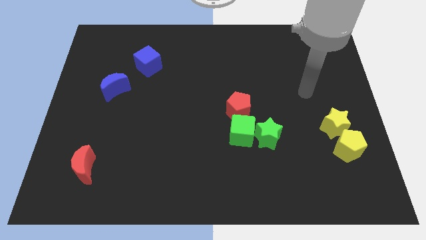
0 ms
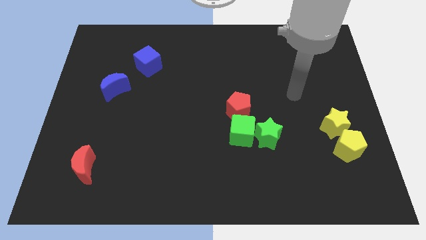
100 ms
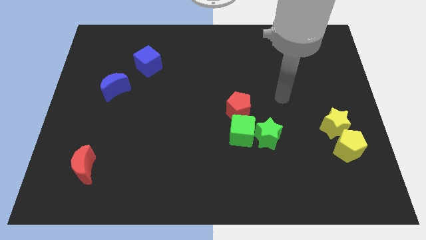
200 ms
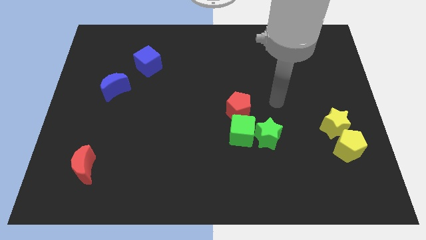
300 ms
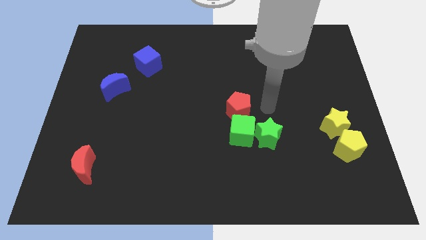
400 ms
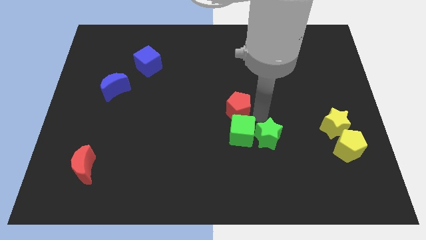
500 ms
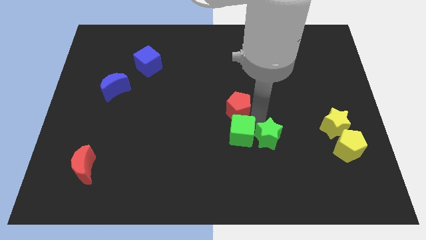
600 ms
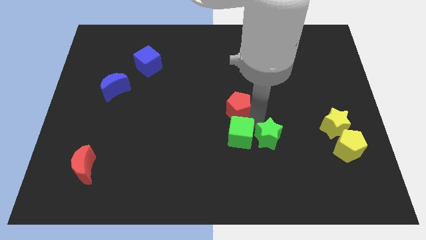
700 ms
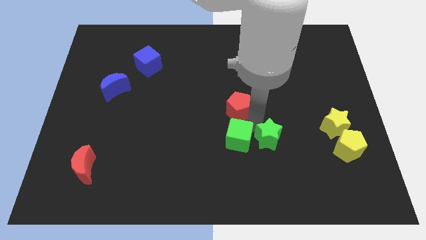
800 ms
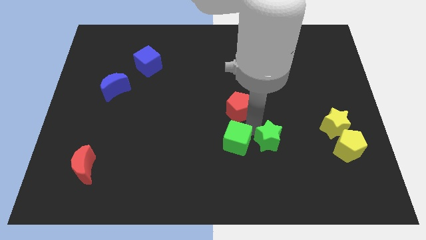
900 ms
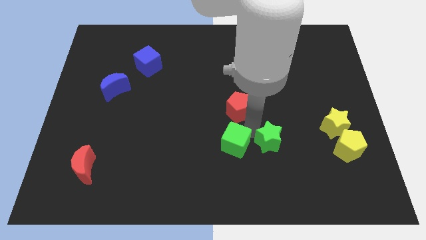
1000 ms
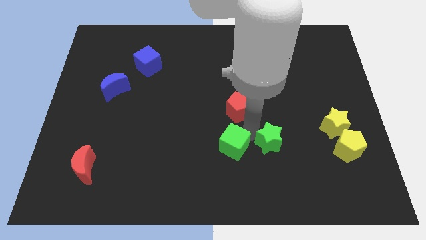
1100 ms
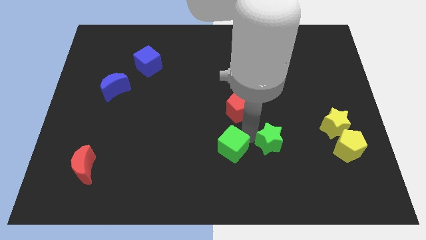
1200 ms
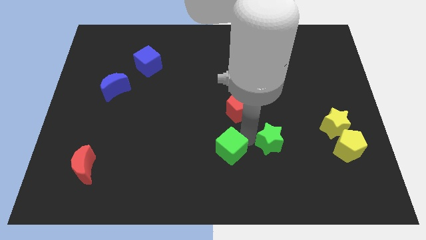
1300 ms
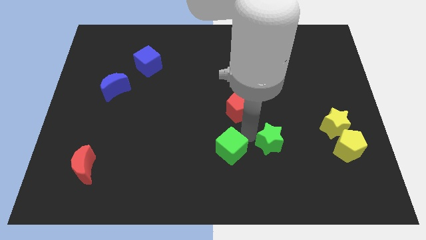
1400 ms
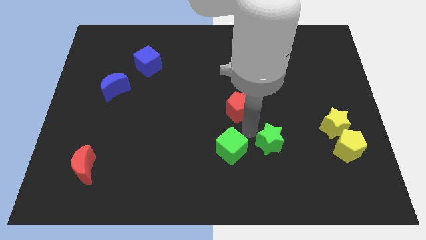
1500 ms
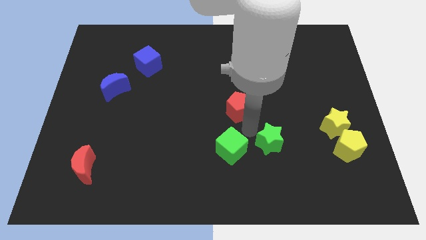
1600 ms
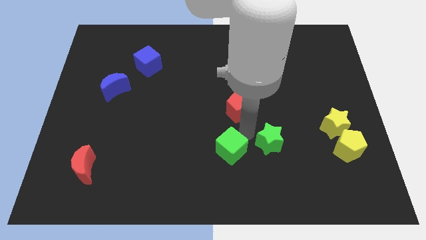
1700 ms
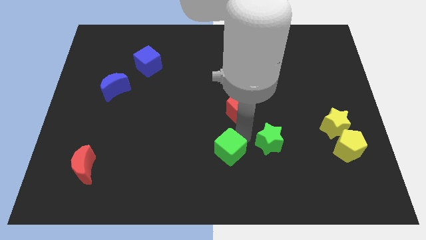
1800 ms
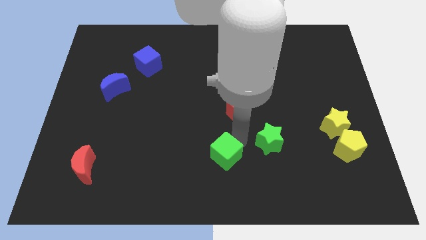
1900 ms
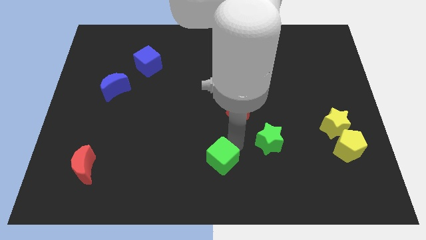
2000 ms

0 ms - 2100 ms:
move the green cube away from the green star and red pentagon

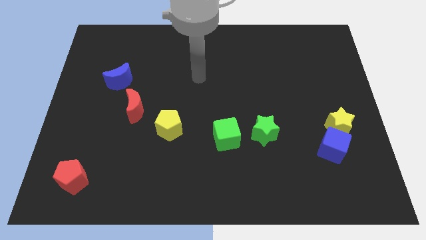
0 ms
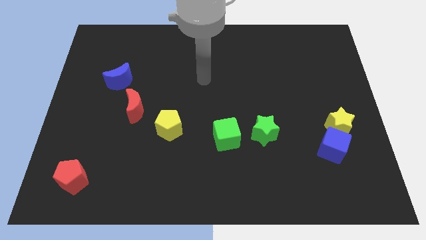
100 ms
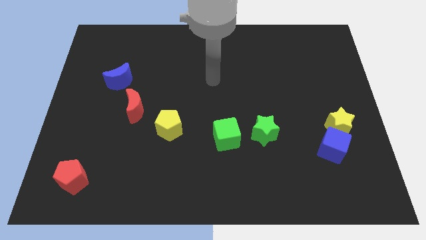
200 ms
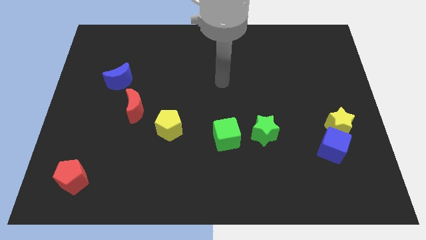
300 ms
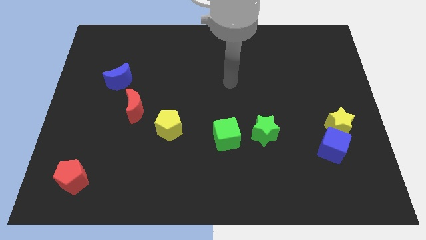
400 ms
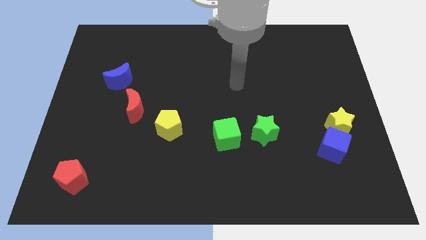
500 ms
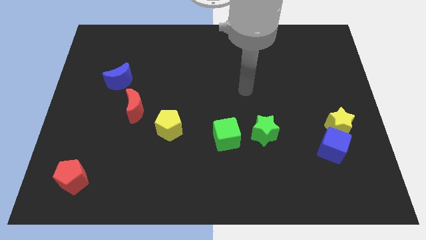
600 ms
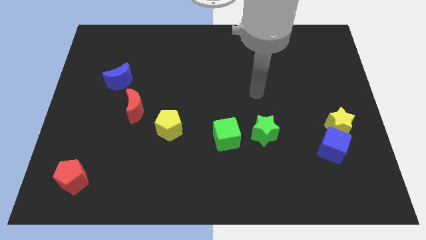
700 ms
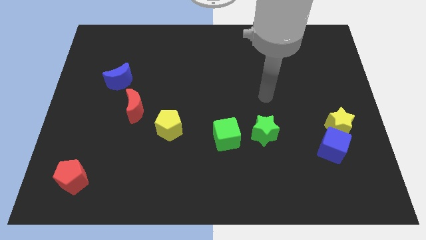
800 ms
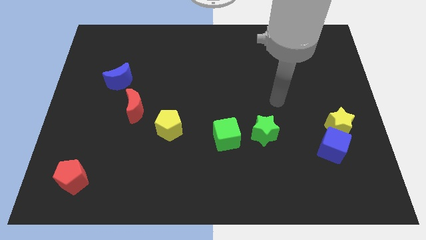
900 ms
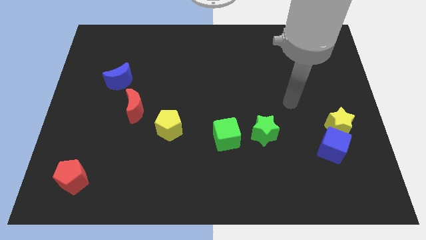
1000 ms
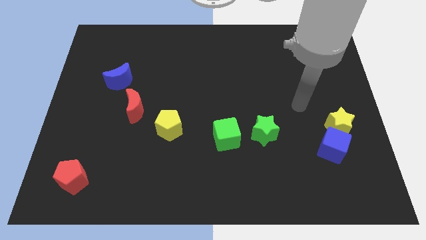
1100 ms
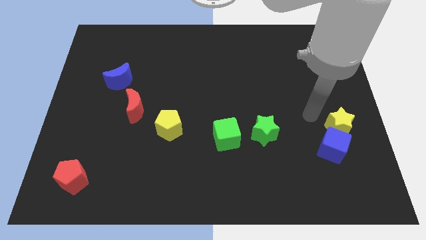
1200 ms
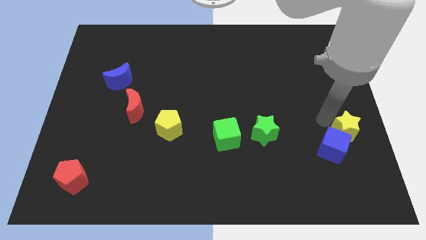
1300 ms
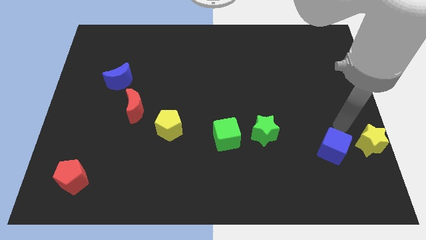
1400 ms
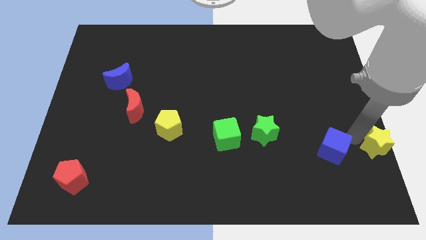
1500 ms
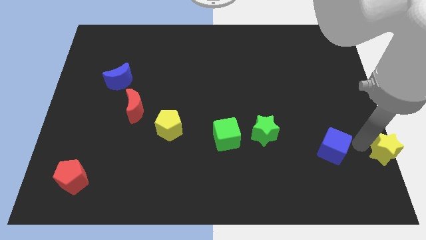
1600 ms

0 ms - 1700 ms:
pull the blue cube apart from the yellow star

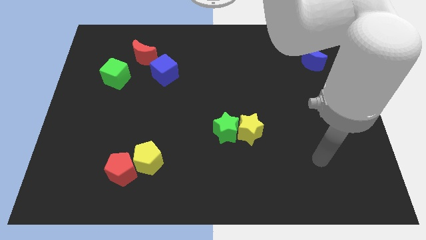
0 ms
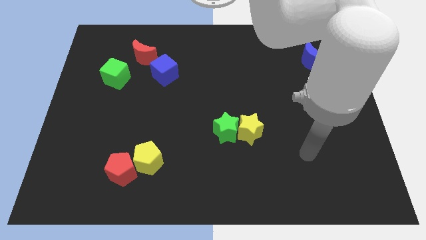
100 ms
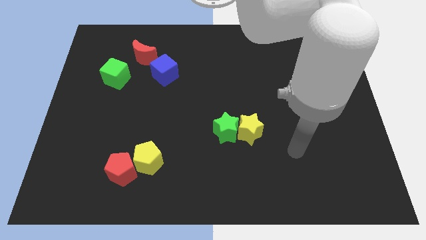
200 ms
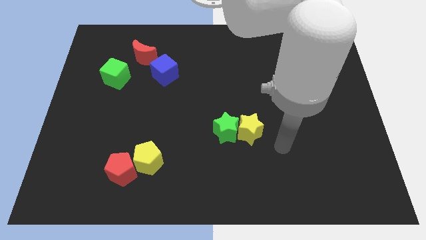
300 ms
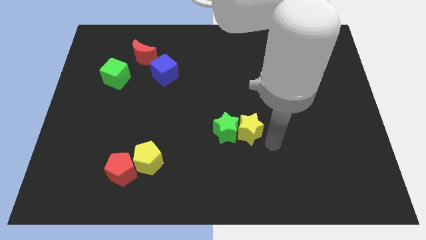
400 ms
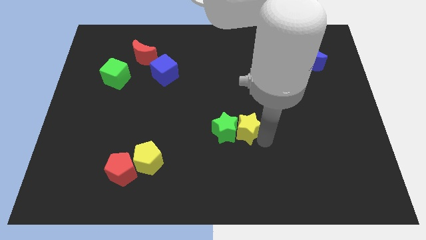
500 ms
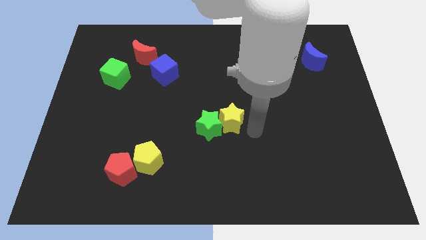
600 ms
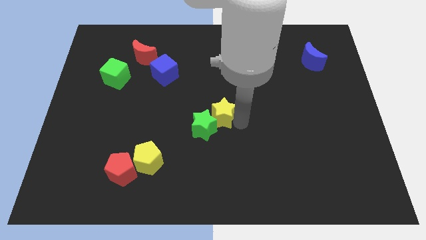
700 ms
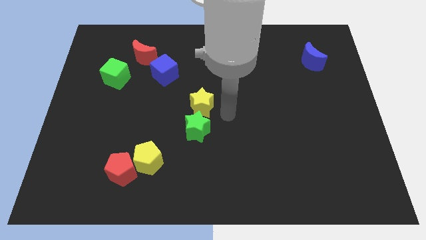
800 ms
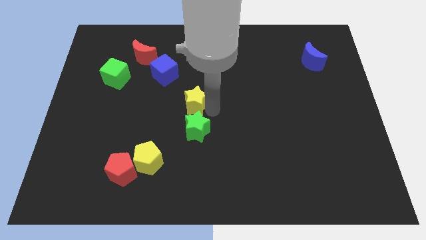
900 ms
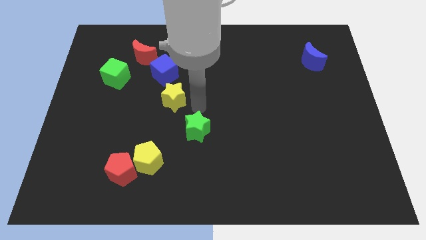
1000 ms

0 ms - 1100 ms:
separate the green star from the yellow star

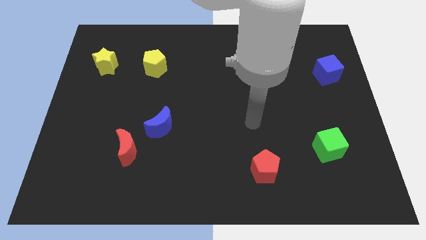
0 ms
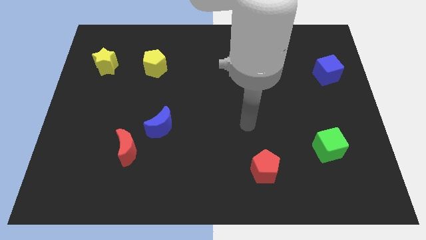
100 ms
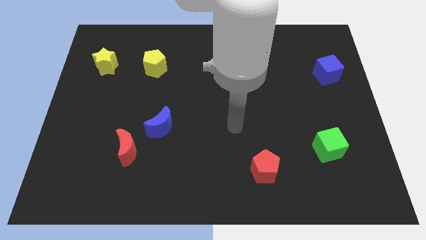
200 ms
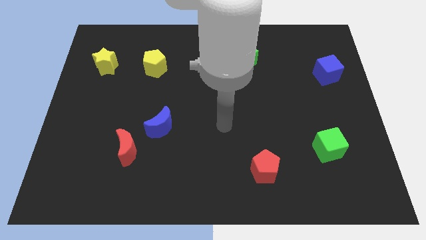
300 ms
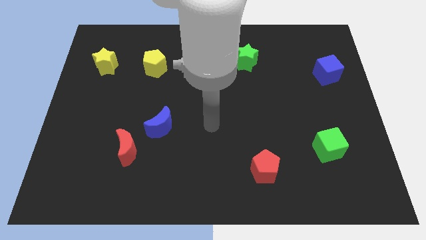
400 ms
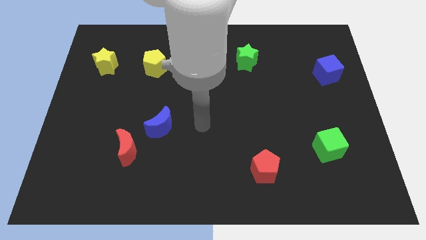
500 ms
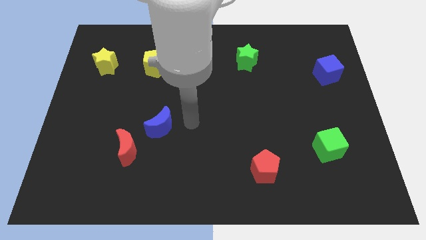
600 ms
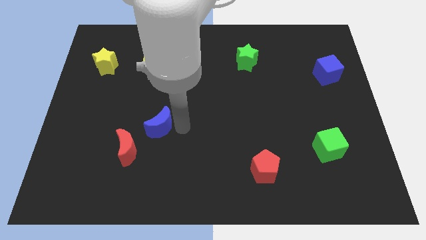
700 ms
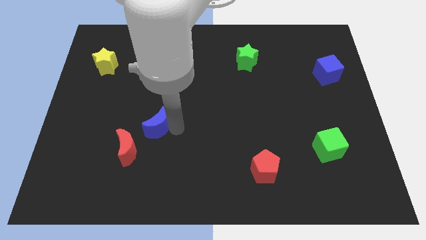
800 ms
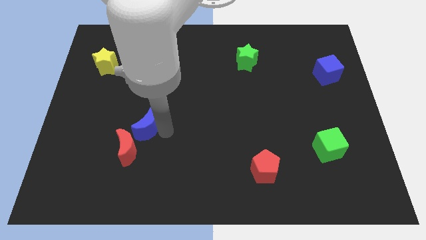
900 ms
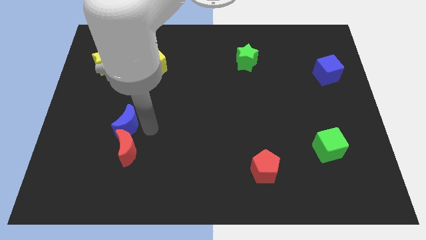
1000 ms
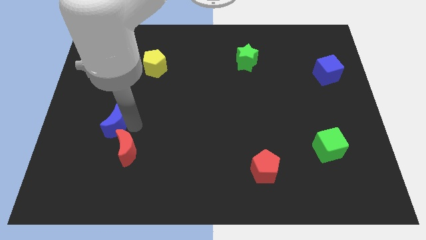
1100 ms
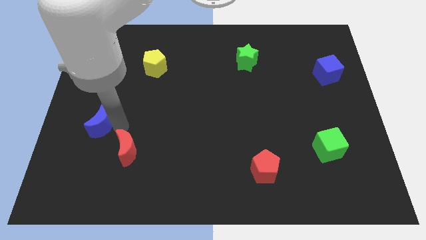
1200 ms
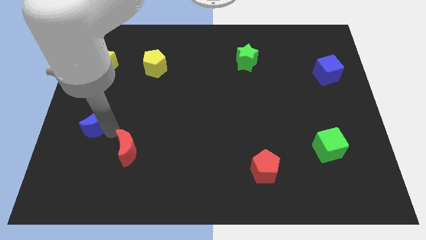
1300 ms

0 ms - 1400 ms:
move the red moon away from the blue moon

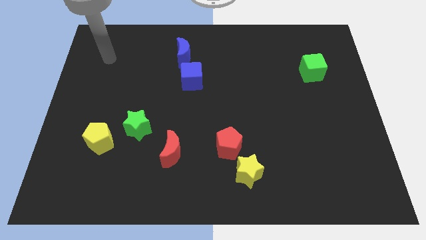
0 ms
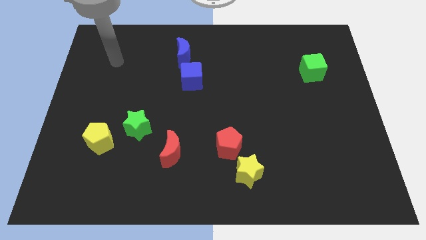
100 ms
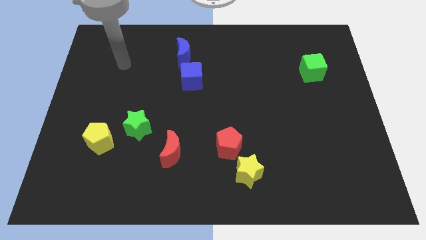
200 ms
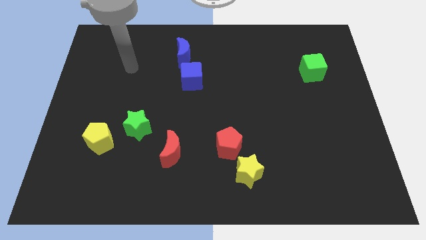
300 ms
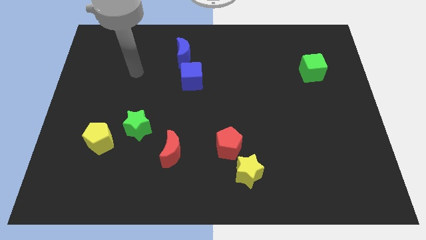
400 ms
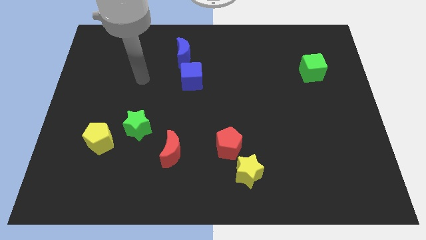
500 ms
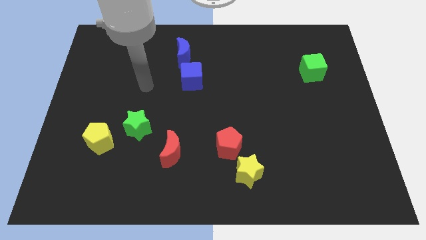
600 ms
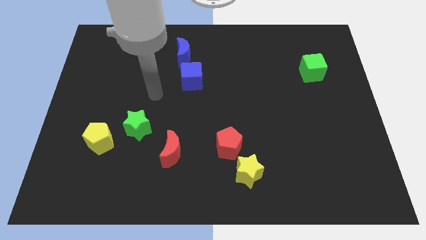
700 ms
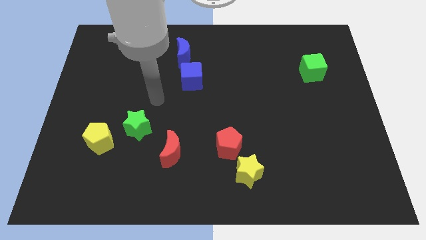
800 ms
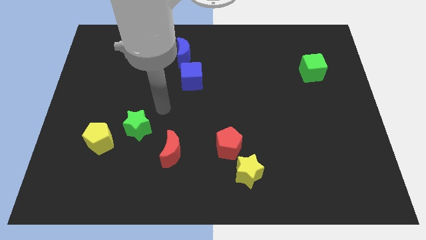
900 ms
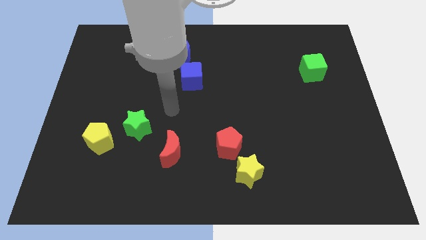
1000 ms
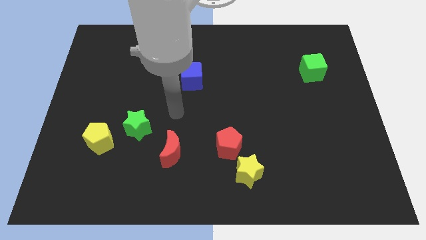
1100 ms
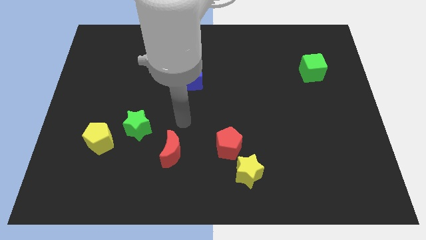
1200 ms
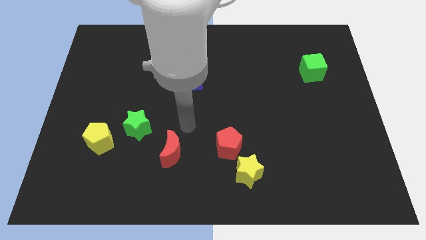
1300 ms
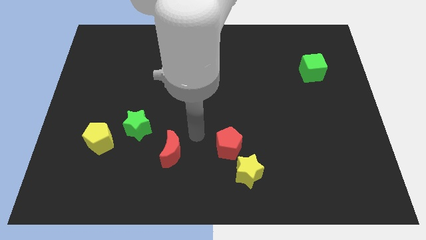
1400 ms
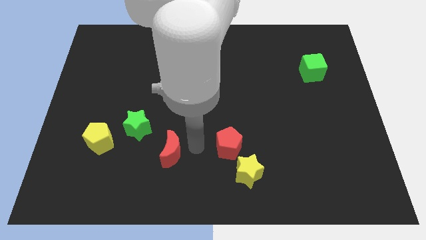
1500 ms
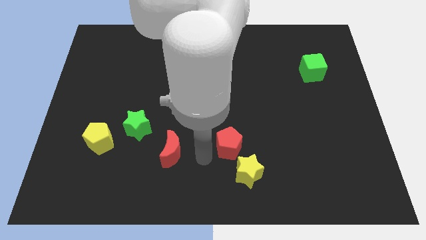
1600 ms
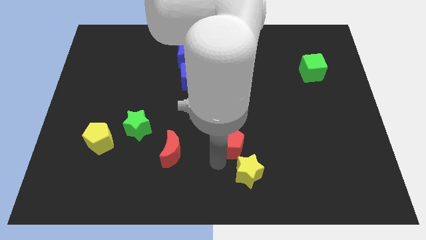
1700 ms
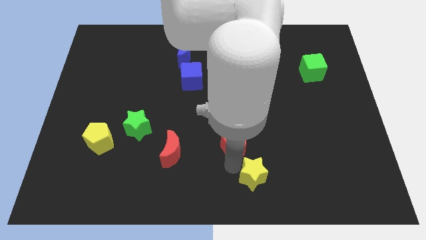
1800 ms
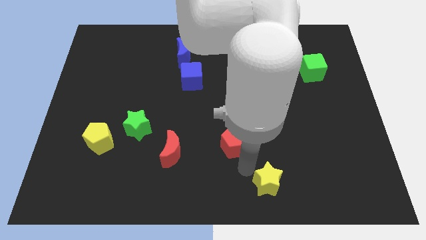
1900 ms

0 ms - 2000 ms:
move the red pentagon away from the yellow star

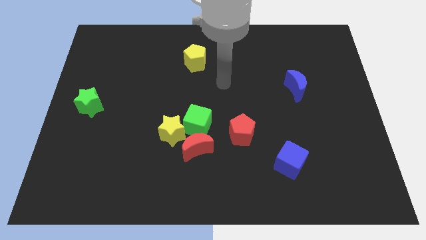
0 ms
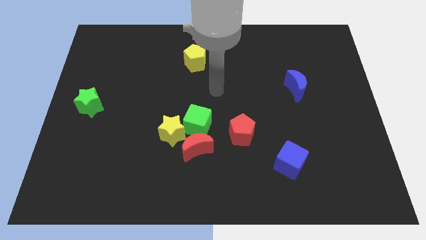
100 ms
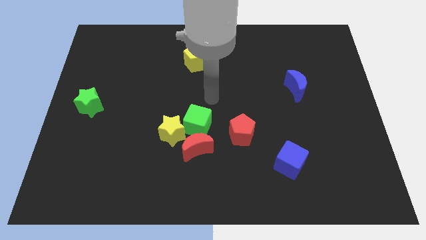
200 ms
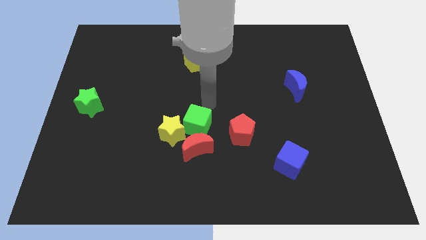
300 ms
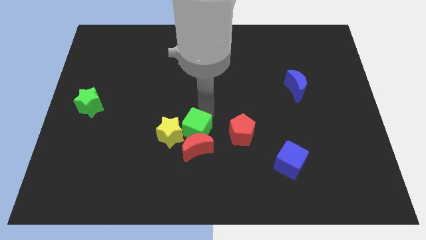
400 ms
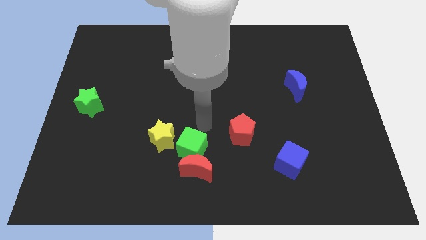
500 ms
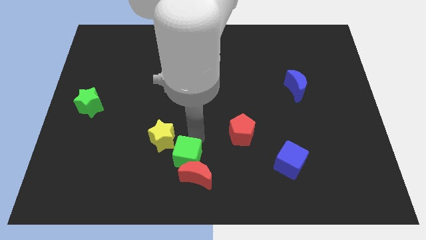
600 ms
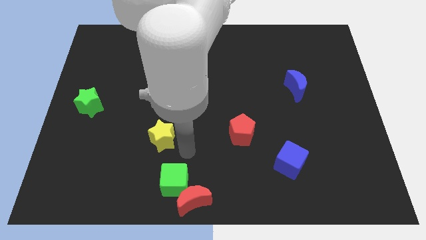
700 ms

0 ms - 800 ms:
separate the yellow star from the green cube and red moon

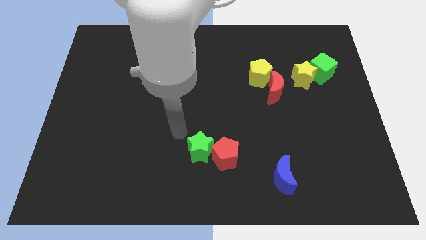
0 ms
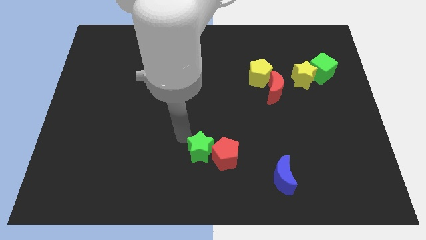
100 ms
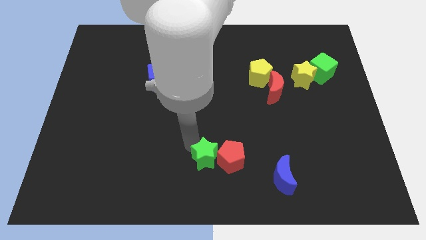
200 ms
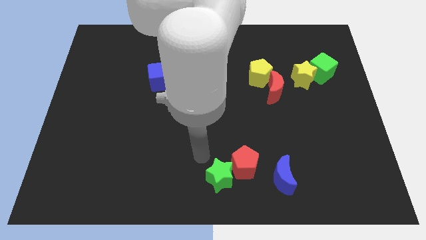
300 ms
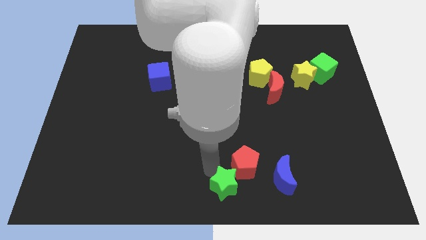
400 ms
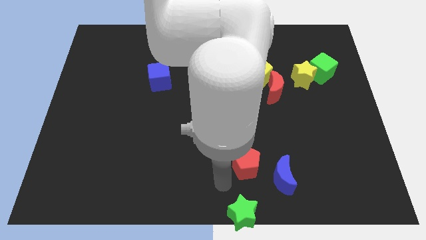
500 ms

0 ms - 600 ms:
move the red pentagon away from the green star
